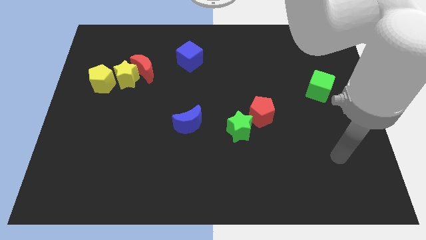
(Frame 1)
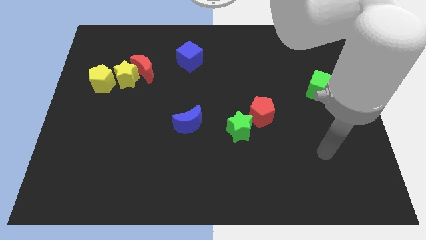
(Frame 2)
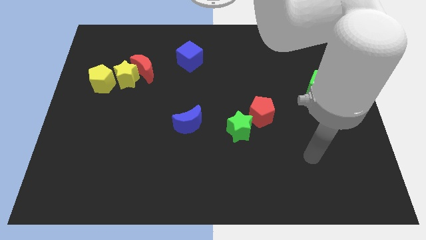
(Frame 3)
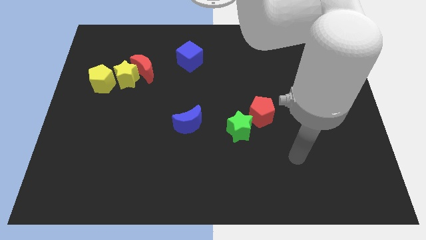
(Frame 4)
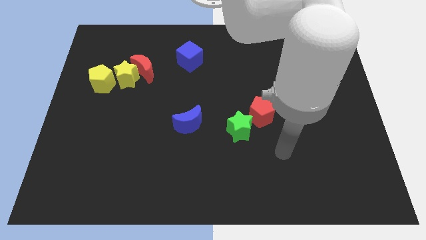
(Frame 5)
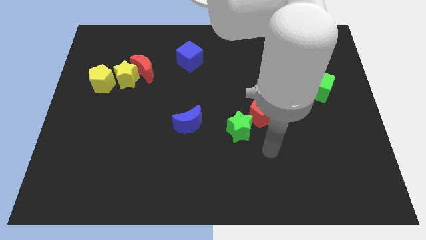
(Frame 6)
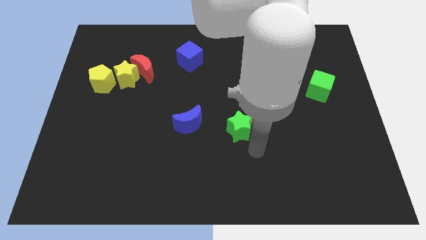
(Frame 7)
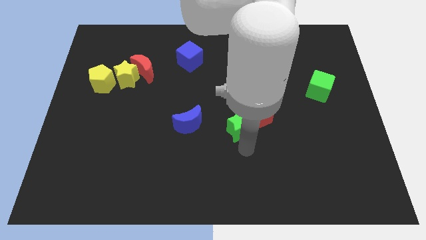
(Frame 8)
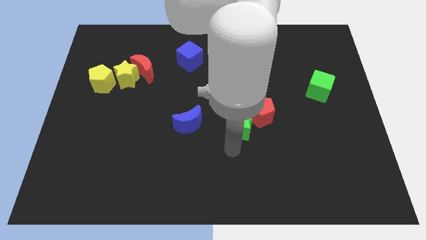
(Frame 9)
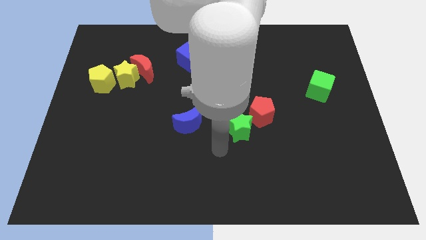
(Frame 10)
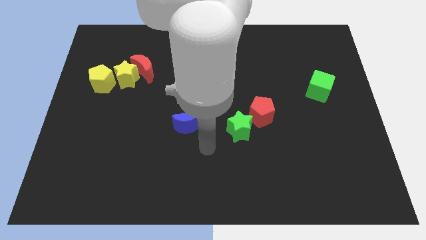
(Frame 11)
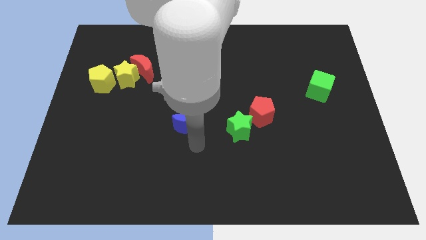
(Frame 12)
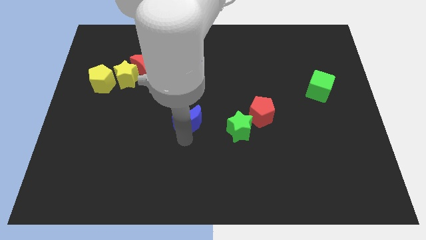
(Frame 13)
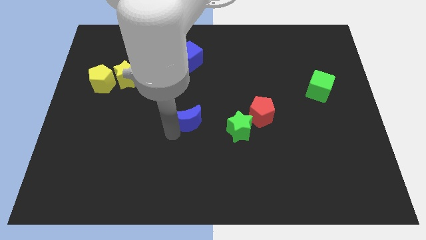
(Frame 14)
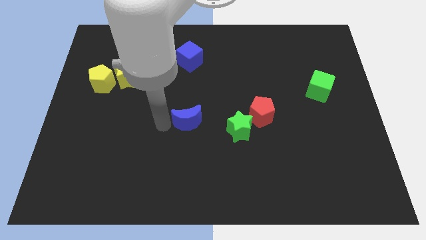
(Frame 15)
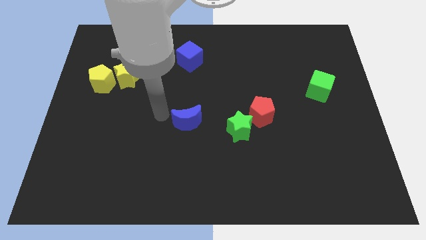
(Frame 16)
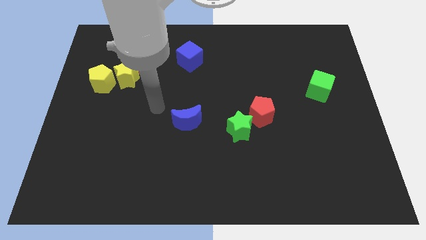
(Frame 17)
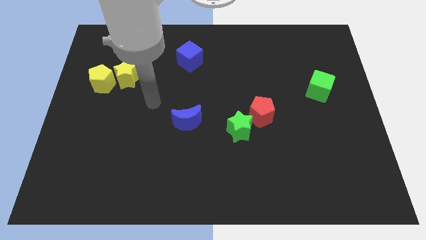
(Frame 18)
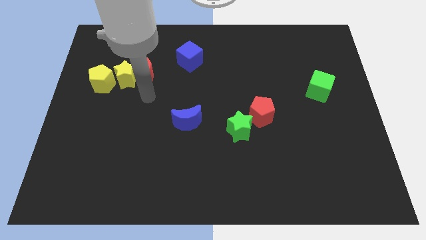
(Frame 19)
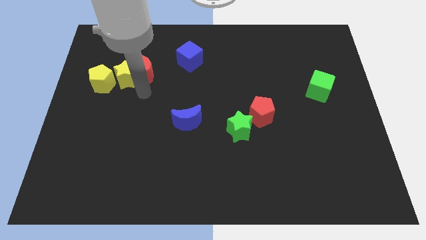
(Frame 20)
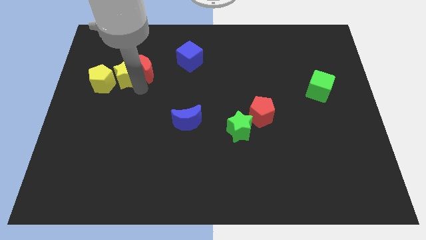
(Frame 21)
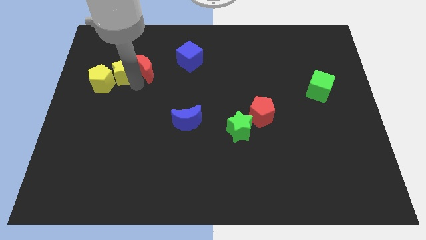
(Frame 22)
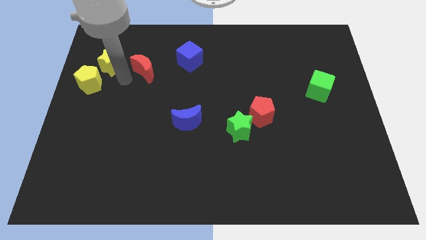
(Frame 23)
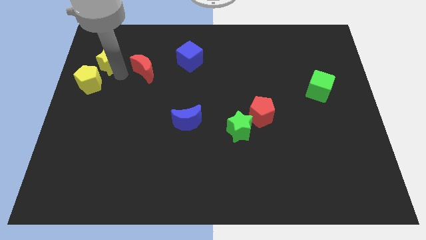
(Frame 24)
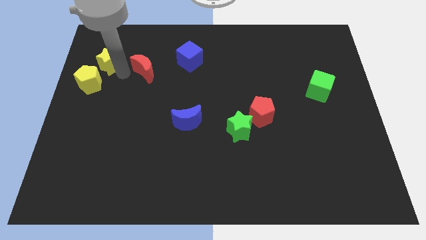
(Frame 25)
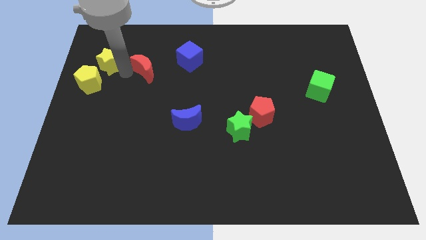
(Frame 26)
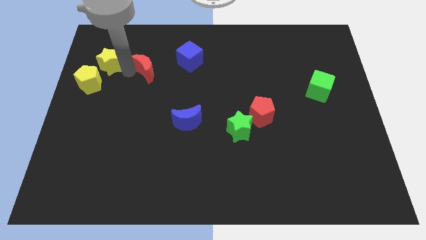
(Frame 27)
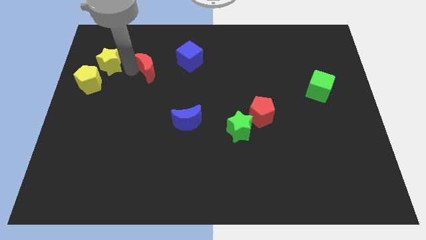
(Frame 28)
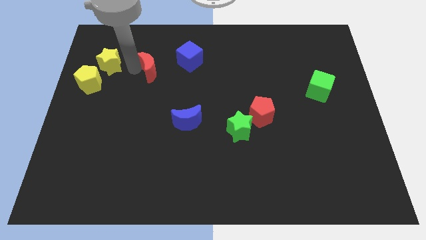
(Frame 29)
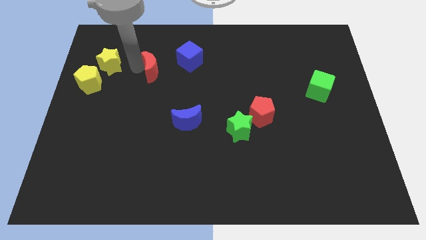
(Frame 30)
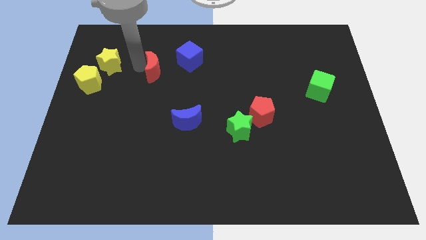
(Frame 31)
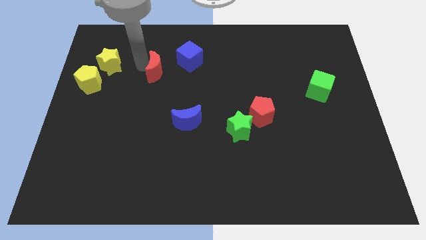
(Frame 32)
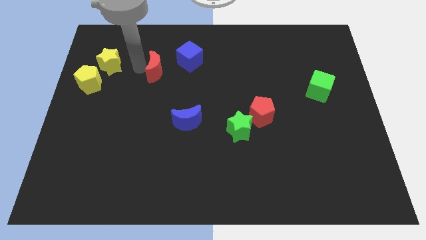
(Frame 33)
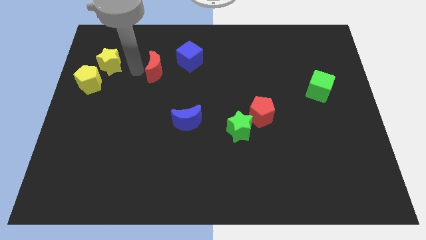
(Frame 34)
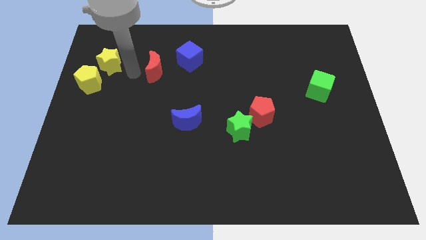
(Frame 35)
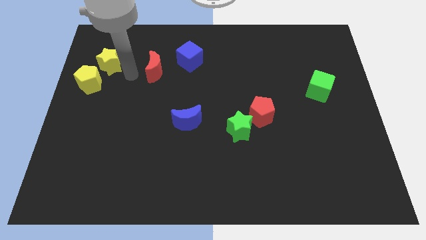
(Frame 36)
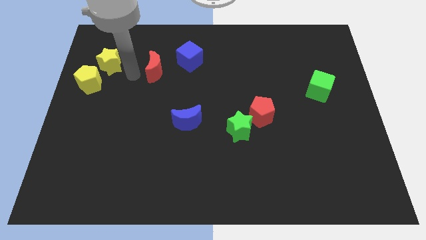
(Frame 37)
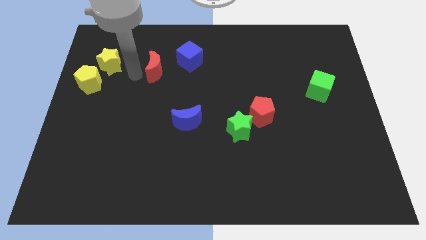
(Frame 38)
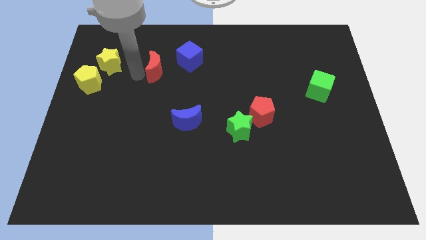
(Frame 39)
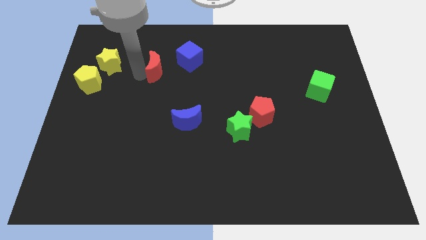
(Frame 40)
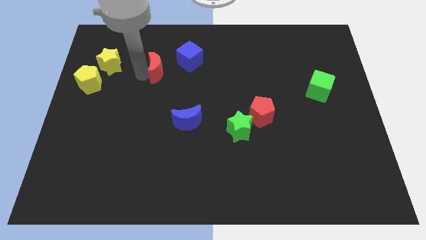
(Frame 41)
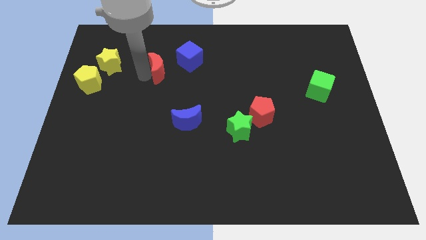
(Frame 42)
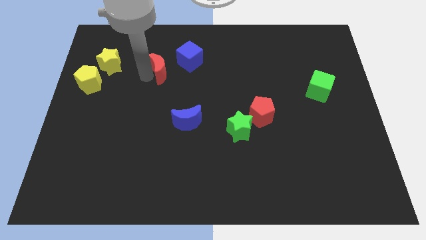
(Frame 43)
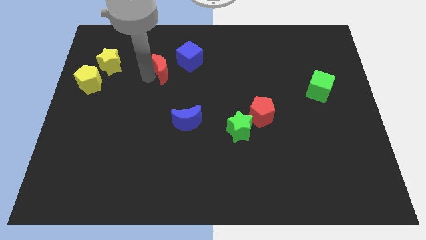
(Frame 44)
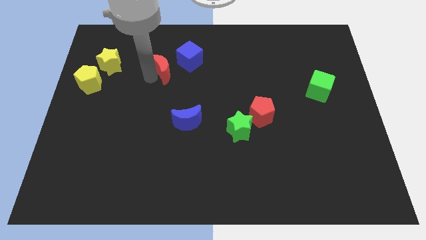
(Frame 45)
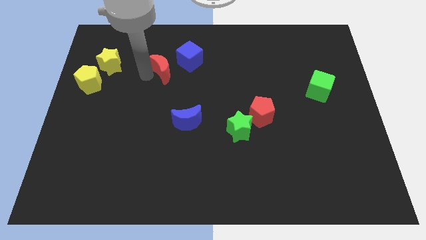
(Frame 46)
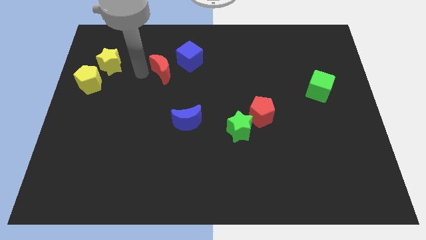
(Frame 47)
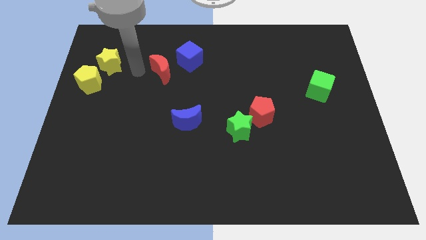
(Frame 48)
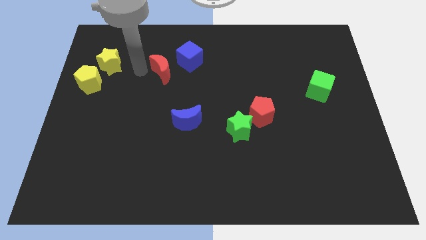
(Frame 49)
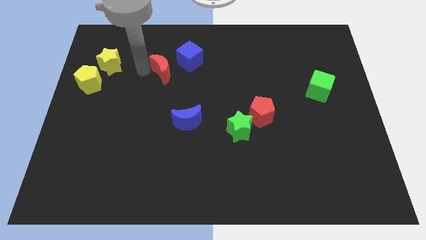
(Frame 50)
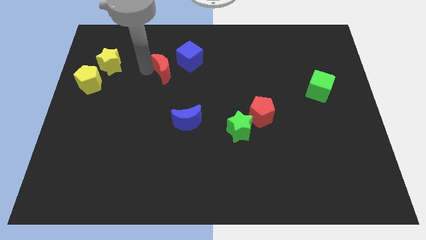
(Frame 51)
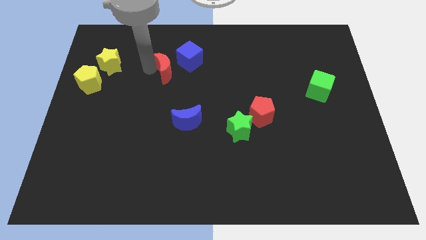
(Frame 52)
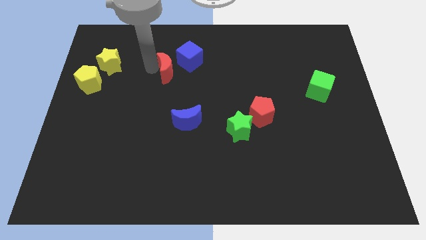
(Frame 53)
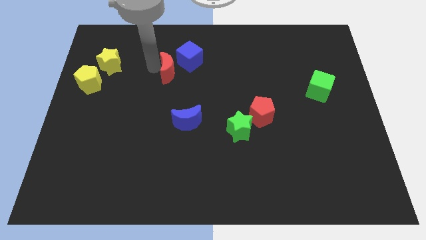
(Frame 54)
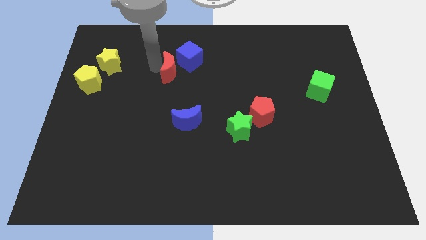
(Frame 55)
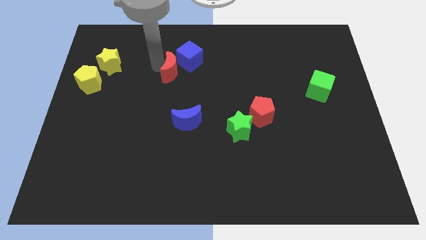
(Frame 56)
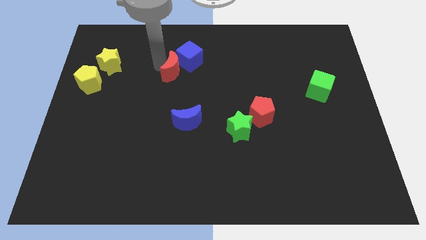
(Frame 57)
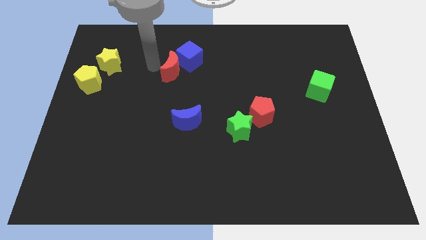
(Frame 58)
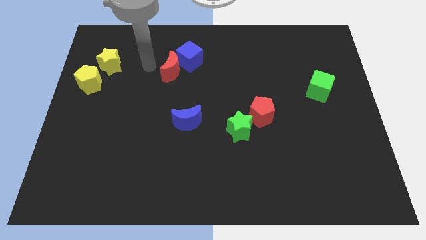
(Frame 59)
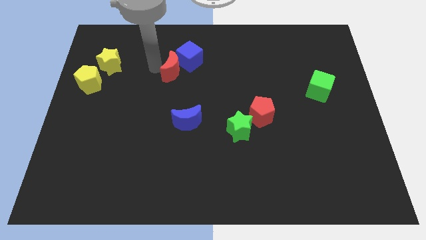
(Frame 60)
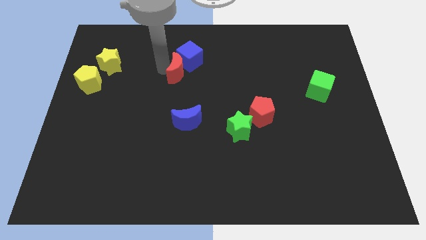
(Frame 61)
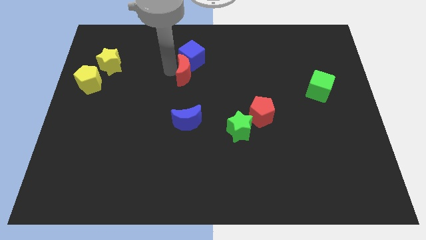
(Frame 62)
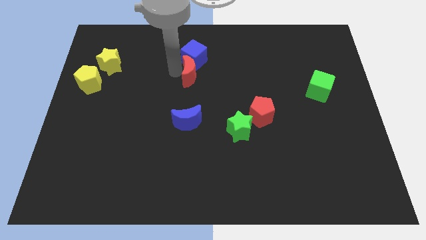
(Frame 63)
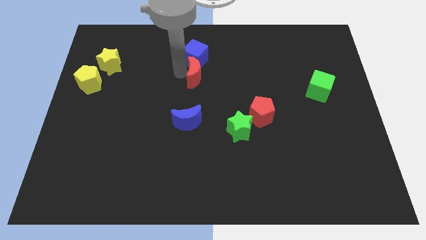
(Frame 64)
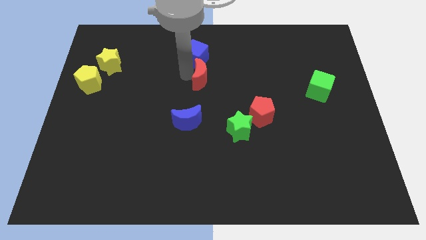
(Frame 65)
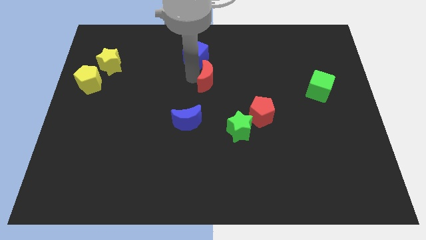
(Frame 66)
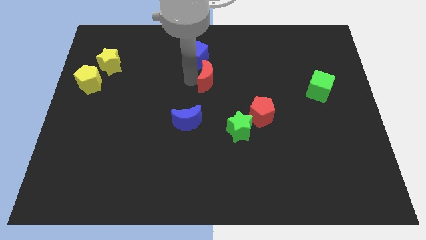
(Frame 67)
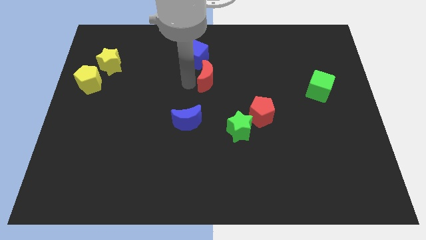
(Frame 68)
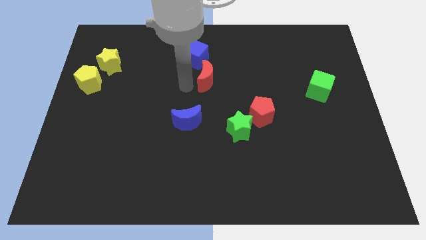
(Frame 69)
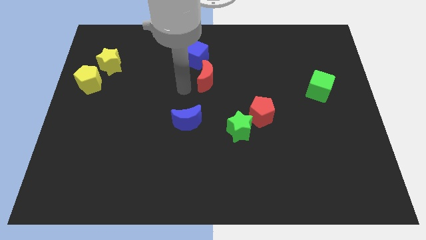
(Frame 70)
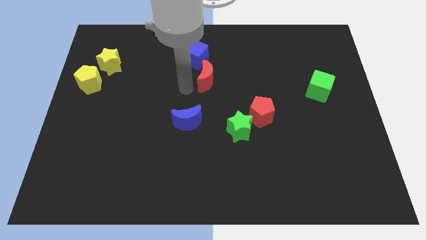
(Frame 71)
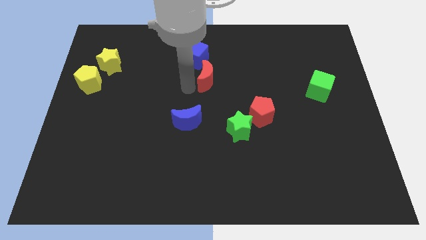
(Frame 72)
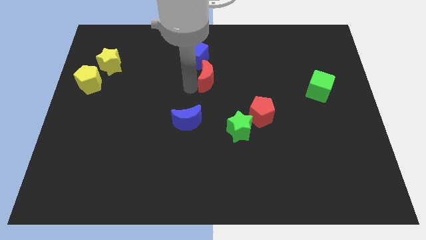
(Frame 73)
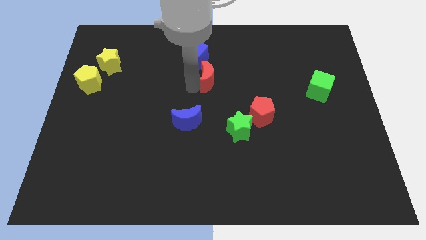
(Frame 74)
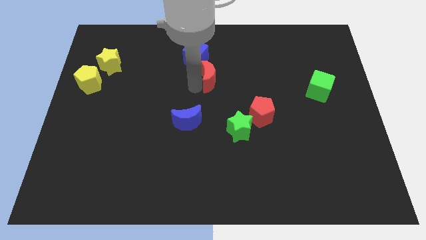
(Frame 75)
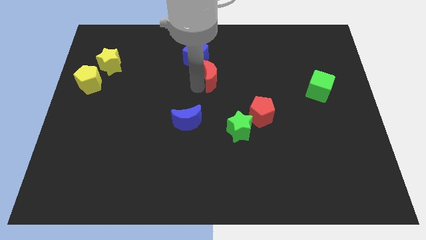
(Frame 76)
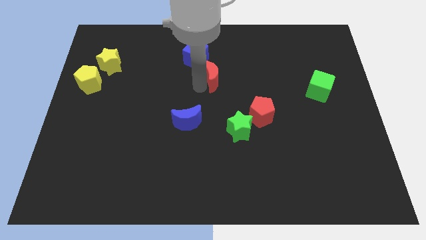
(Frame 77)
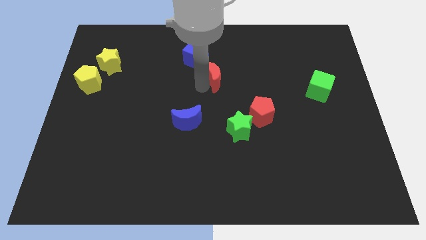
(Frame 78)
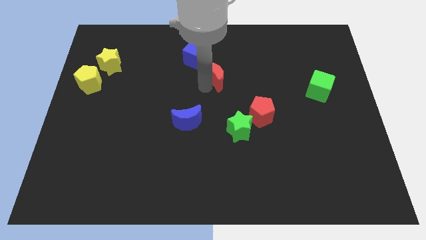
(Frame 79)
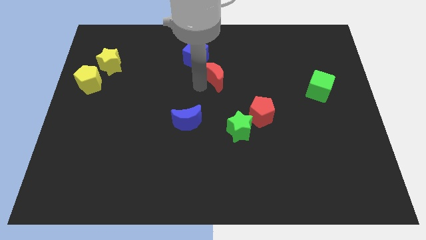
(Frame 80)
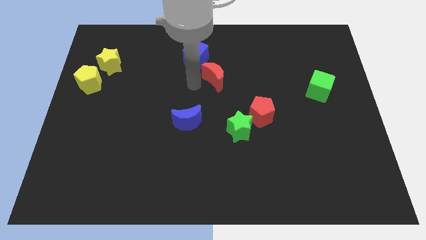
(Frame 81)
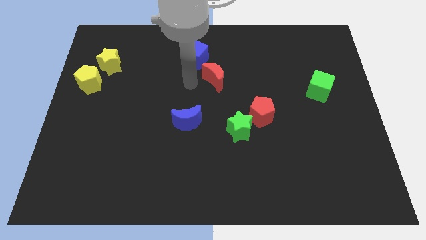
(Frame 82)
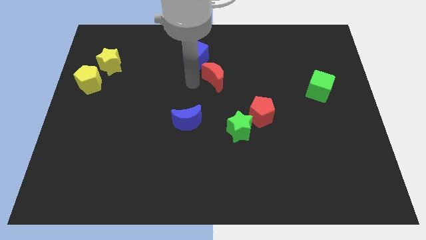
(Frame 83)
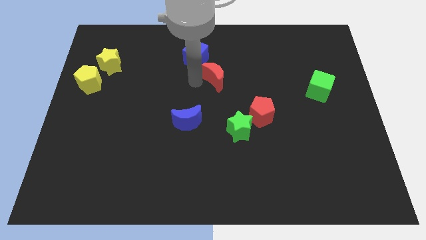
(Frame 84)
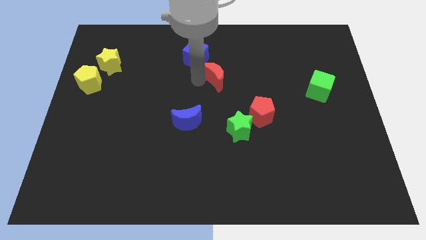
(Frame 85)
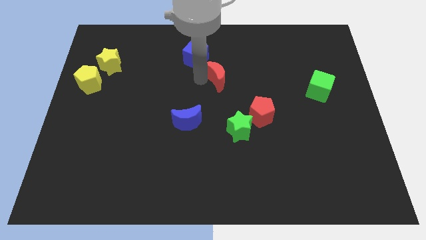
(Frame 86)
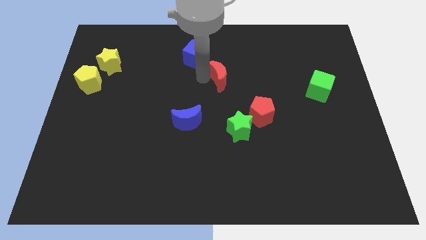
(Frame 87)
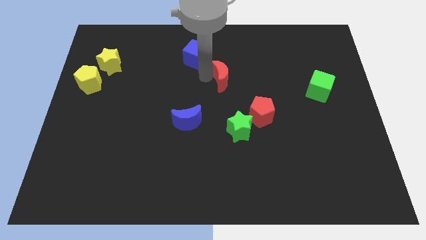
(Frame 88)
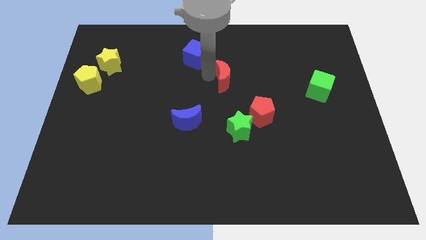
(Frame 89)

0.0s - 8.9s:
slide the red moon right
